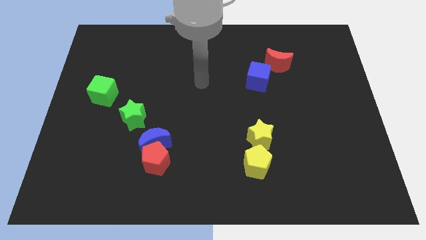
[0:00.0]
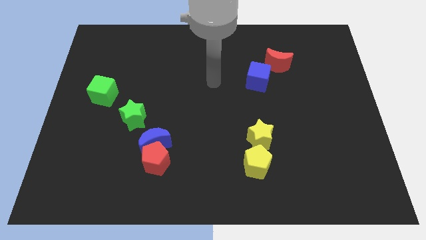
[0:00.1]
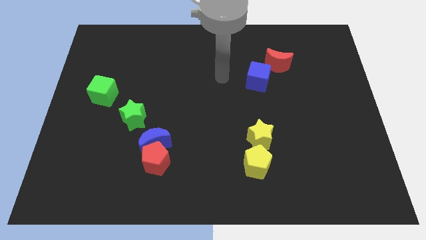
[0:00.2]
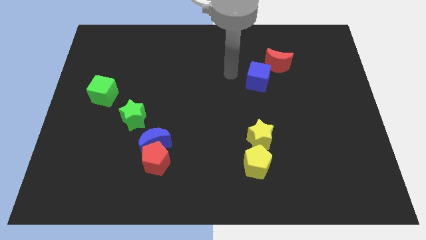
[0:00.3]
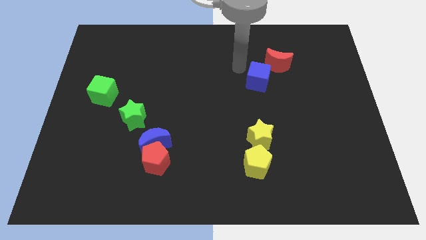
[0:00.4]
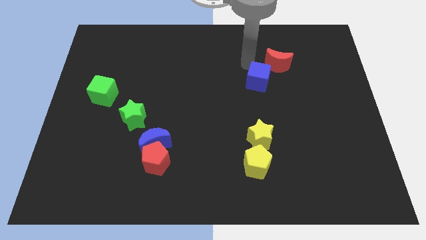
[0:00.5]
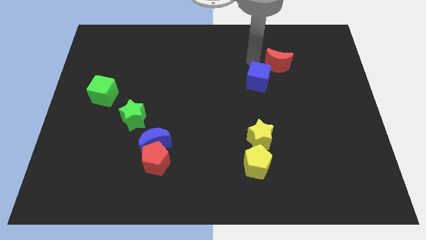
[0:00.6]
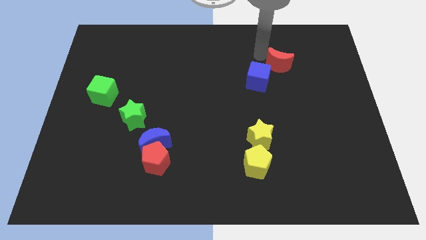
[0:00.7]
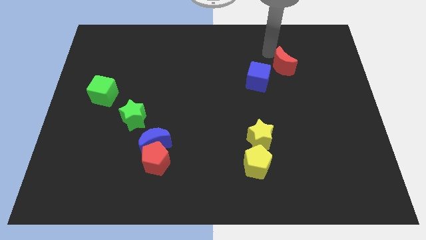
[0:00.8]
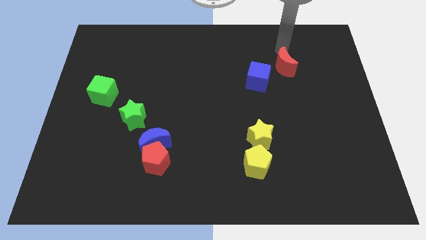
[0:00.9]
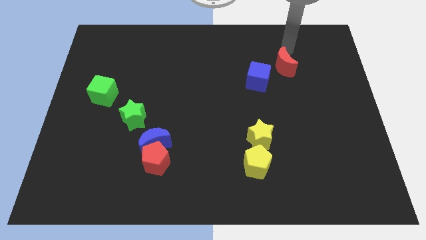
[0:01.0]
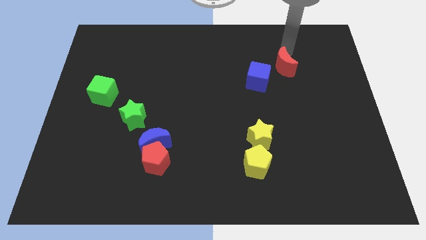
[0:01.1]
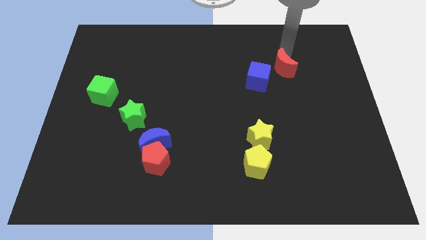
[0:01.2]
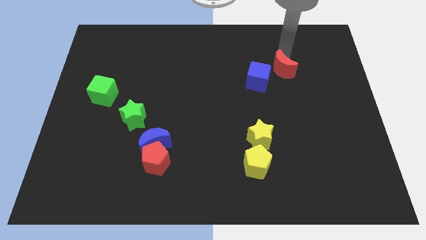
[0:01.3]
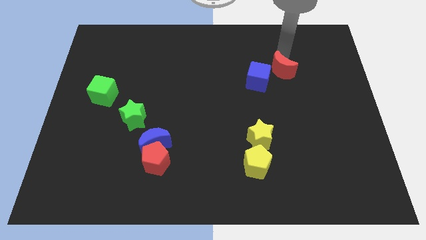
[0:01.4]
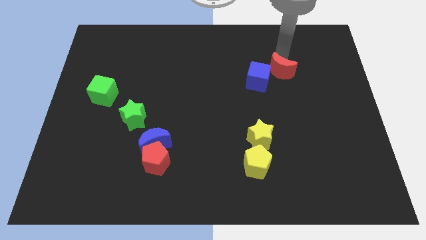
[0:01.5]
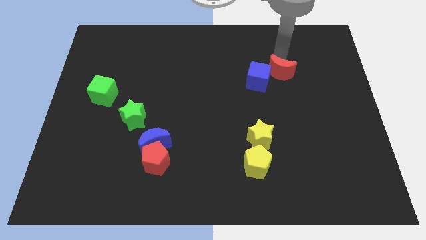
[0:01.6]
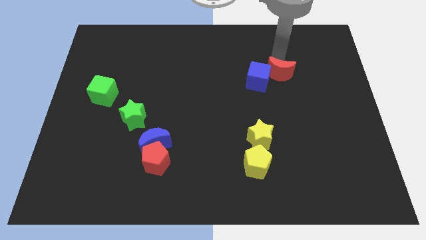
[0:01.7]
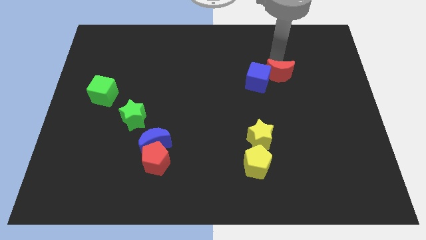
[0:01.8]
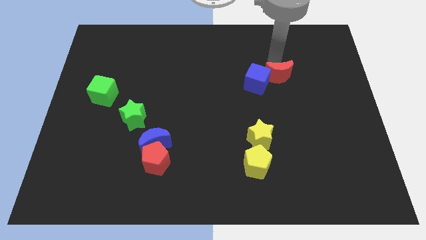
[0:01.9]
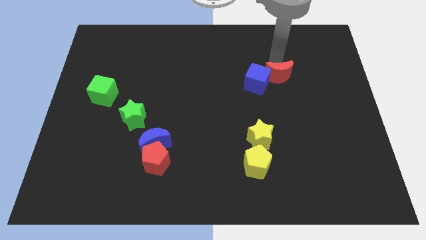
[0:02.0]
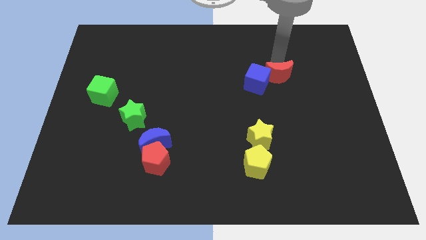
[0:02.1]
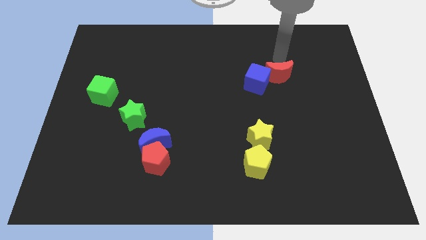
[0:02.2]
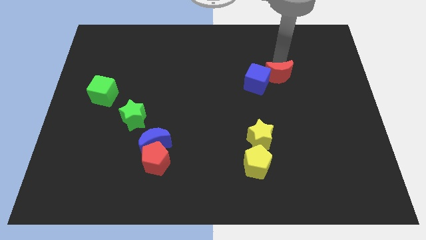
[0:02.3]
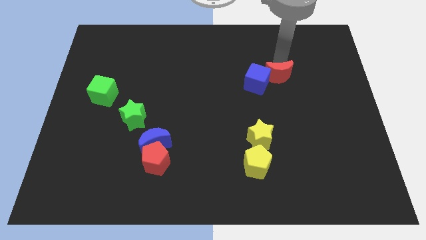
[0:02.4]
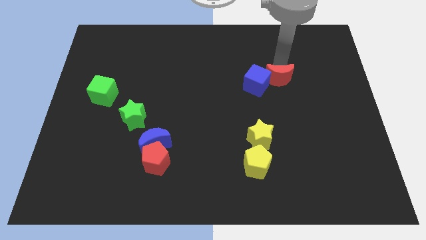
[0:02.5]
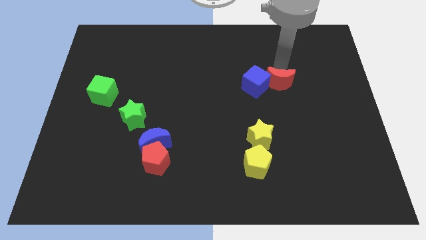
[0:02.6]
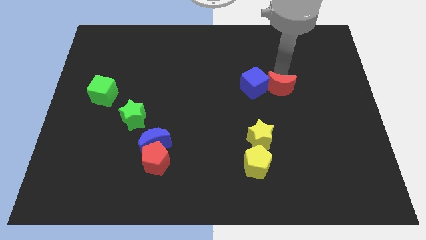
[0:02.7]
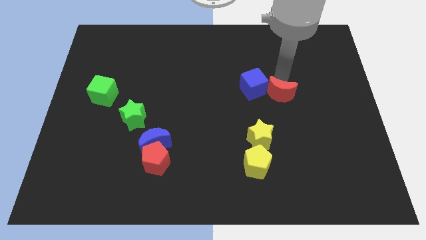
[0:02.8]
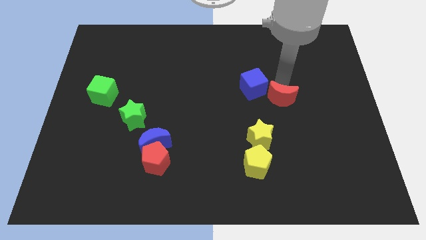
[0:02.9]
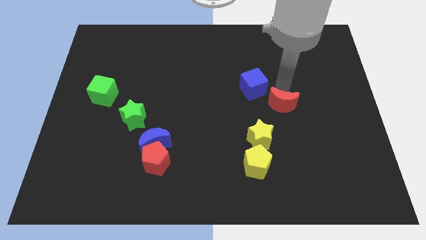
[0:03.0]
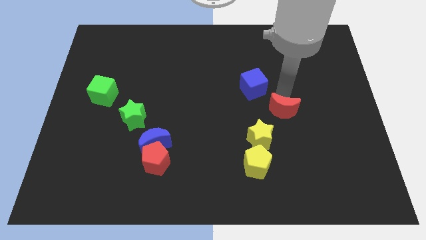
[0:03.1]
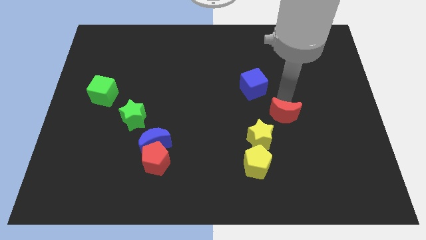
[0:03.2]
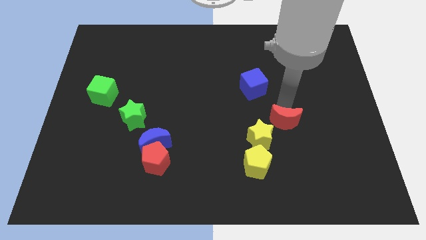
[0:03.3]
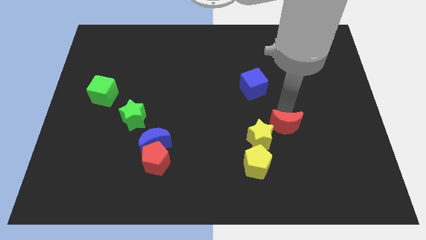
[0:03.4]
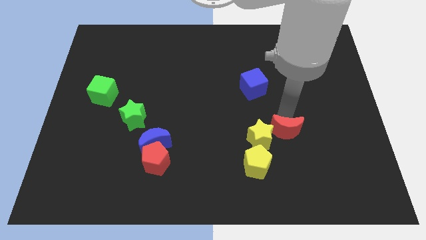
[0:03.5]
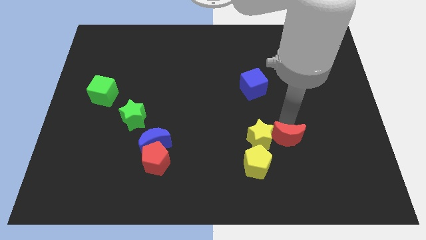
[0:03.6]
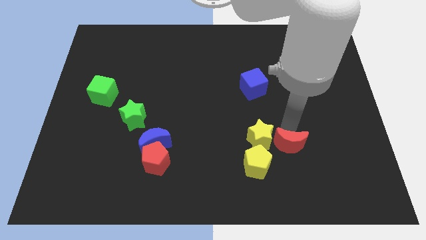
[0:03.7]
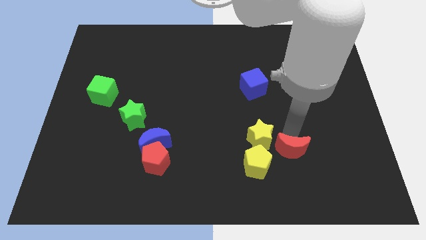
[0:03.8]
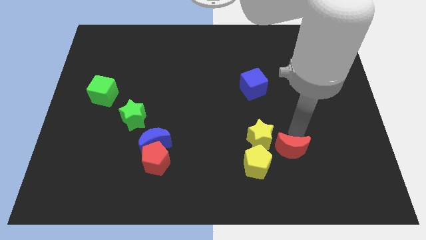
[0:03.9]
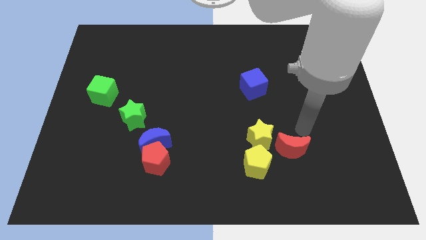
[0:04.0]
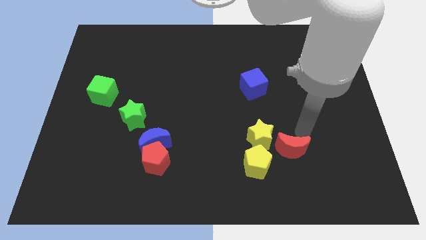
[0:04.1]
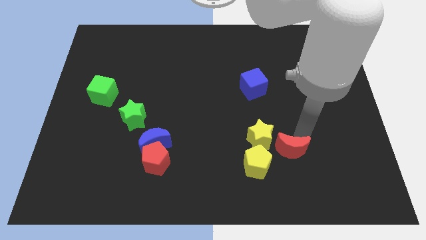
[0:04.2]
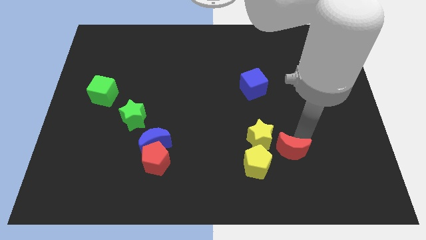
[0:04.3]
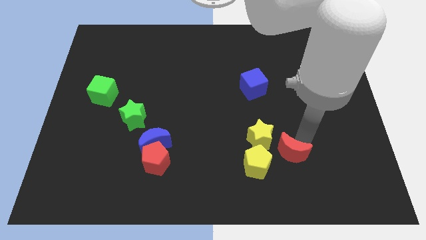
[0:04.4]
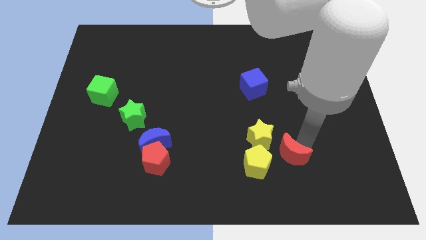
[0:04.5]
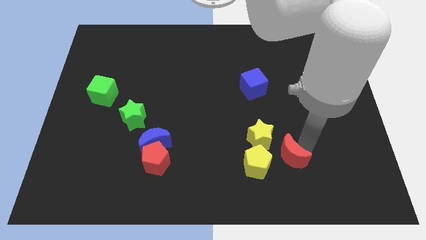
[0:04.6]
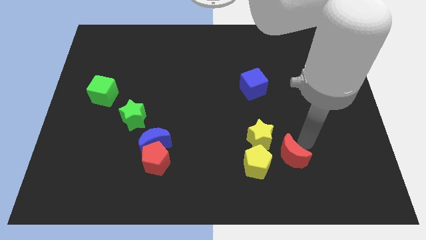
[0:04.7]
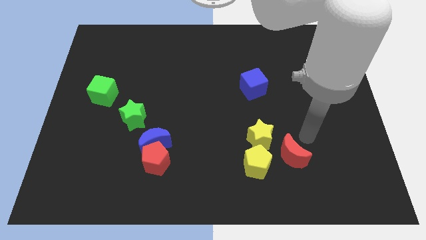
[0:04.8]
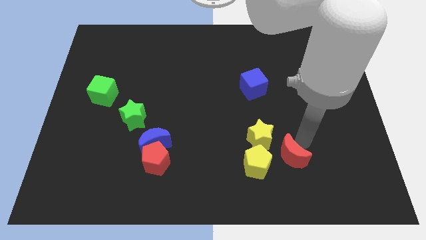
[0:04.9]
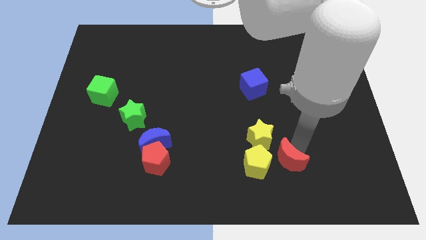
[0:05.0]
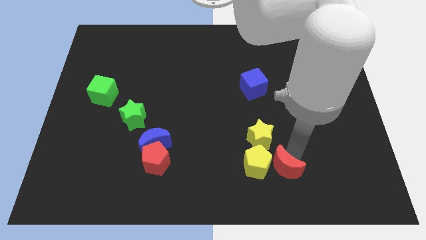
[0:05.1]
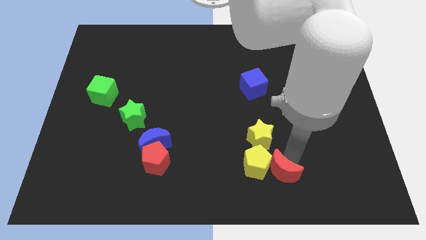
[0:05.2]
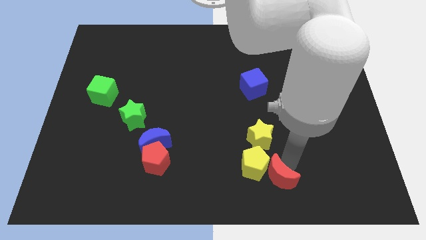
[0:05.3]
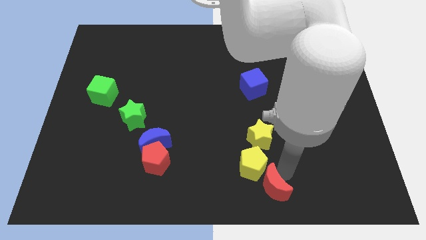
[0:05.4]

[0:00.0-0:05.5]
slide the red moon to the bottom side

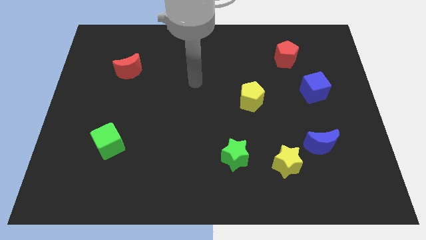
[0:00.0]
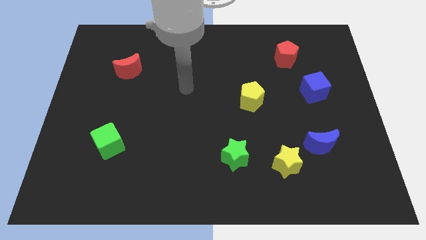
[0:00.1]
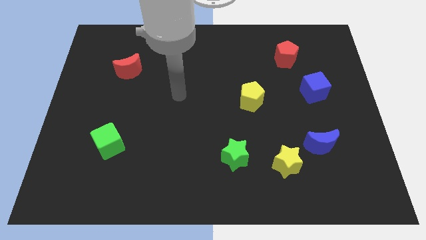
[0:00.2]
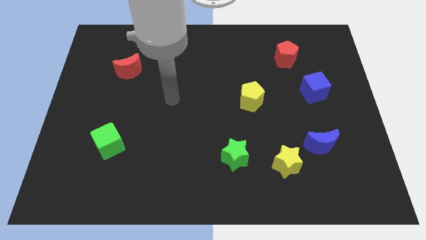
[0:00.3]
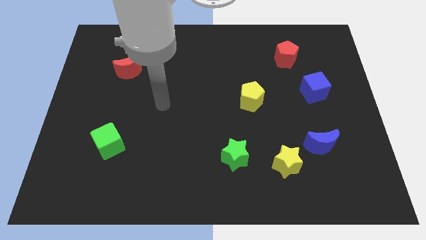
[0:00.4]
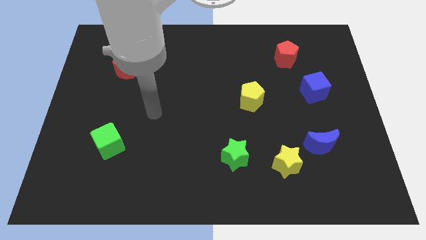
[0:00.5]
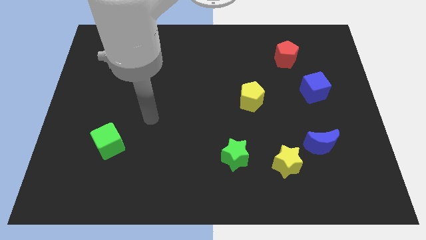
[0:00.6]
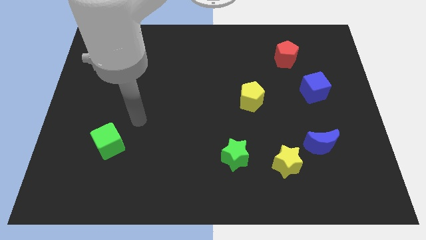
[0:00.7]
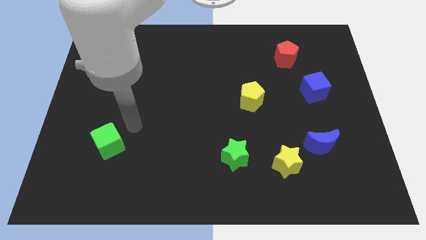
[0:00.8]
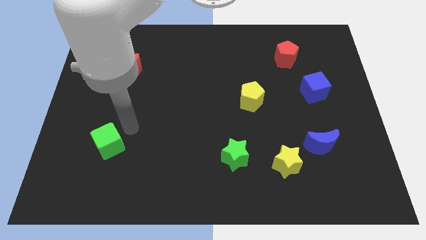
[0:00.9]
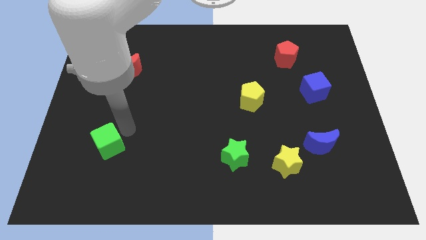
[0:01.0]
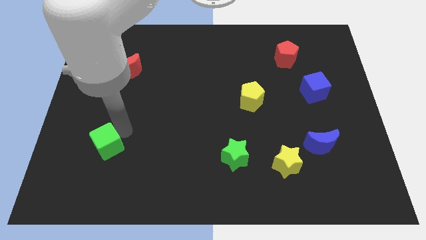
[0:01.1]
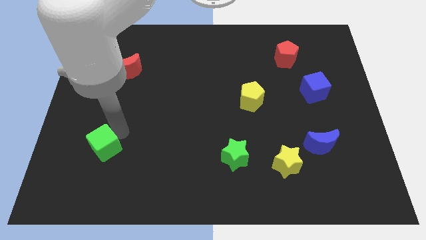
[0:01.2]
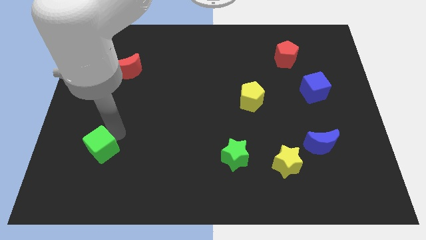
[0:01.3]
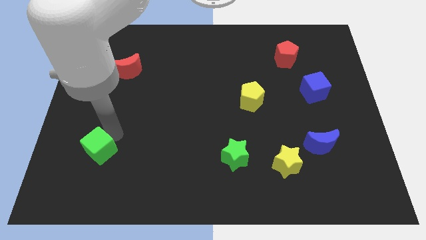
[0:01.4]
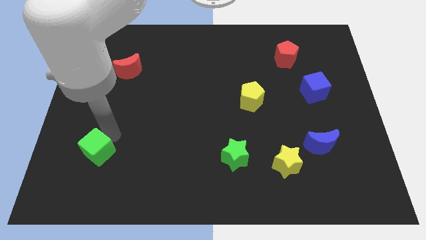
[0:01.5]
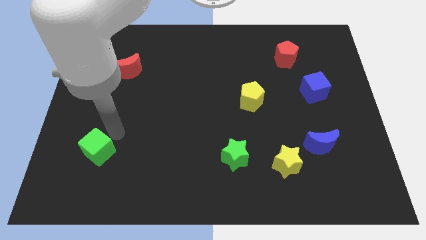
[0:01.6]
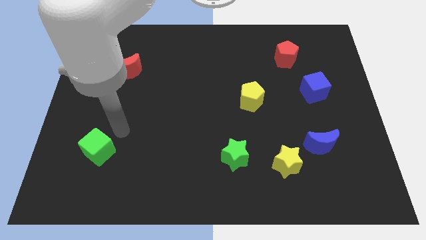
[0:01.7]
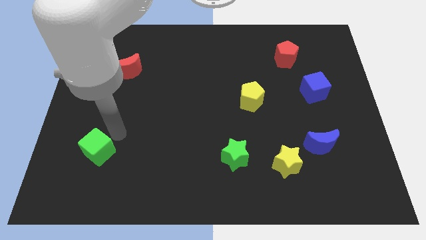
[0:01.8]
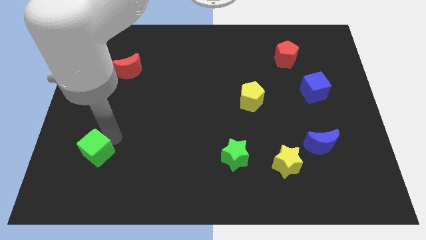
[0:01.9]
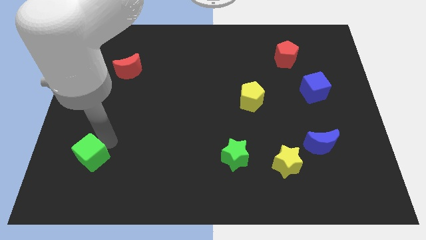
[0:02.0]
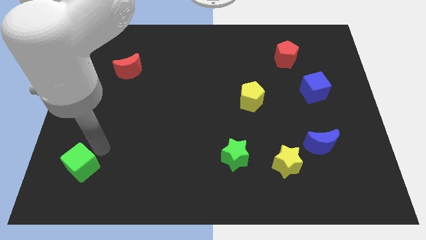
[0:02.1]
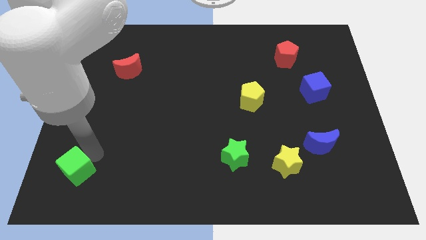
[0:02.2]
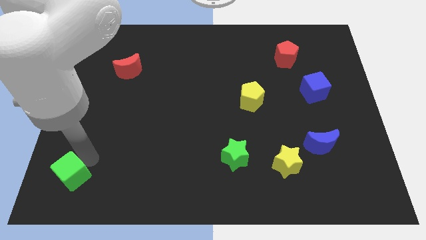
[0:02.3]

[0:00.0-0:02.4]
slide the green cube to the bottom left
